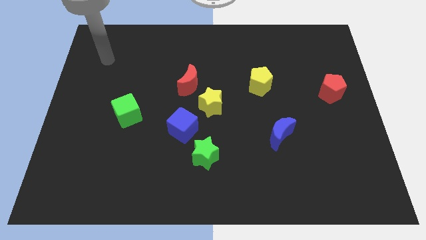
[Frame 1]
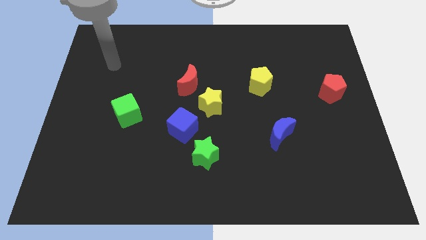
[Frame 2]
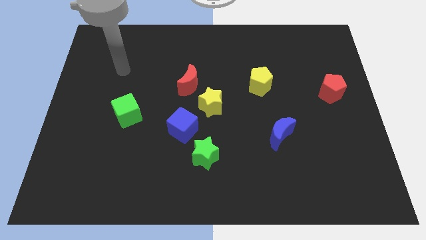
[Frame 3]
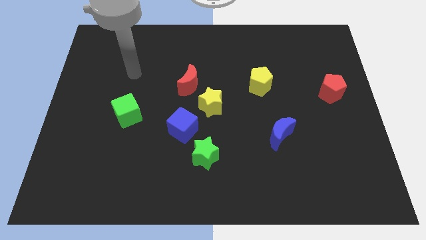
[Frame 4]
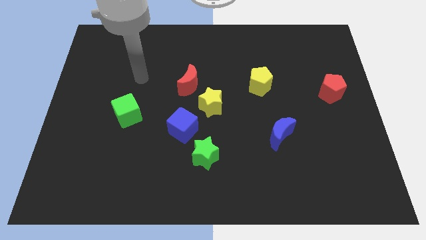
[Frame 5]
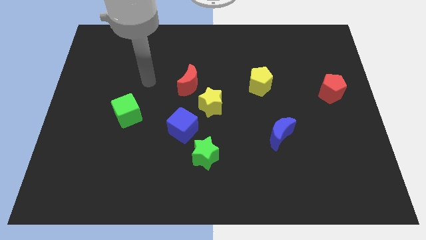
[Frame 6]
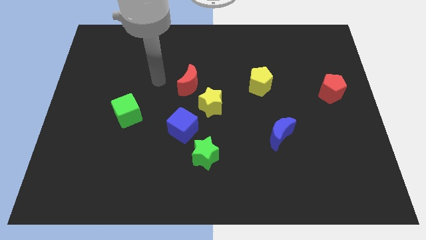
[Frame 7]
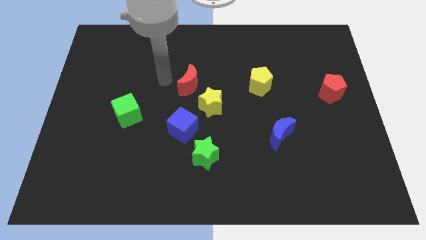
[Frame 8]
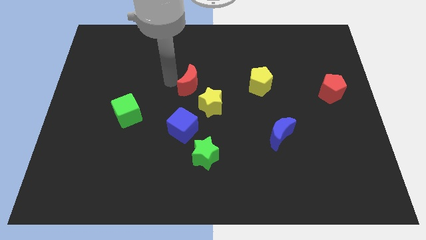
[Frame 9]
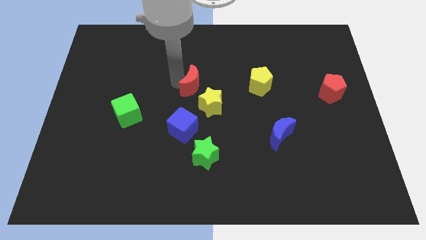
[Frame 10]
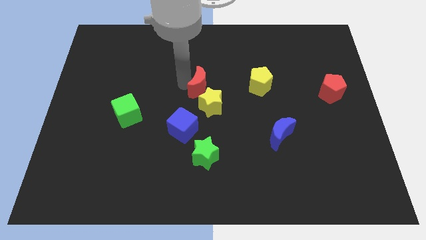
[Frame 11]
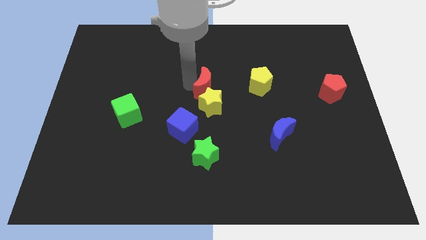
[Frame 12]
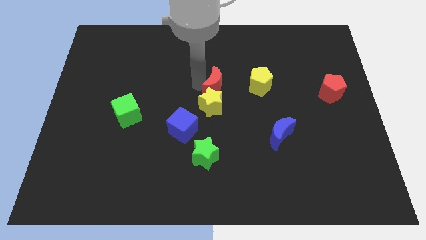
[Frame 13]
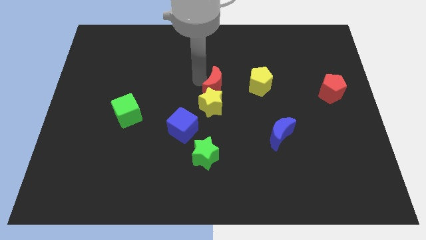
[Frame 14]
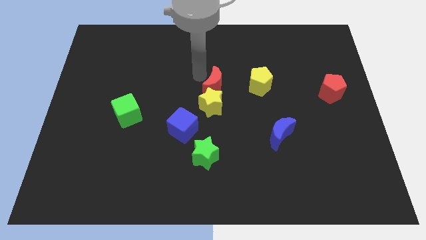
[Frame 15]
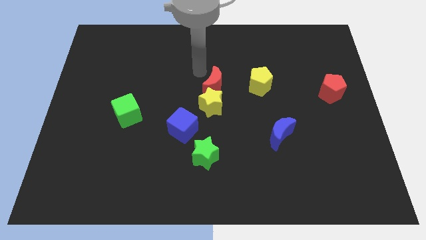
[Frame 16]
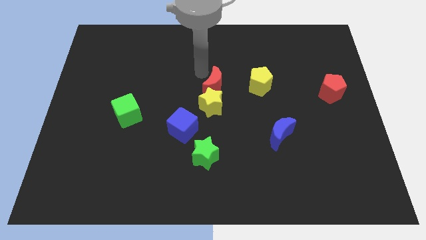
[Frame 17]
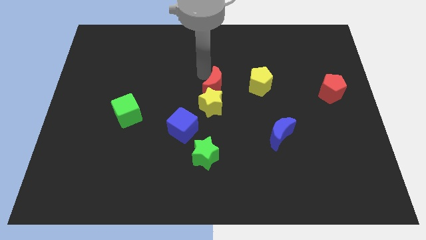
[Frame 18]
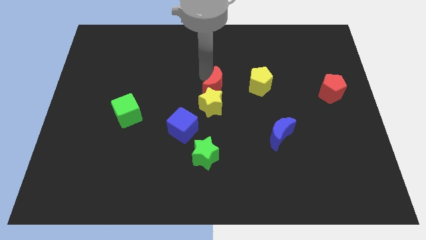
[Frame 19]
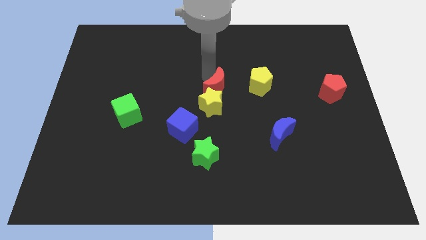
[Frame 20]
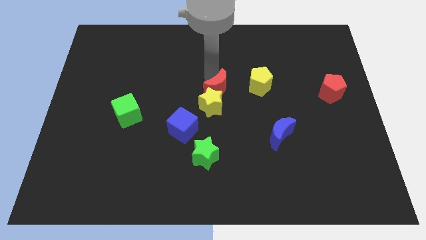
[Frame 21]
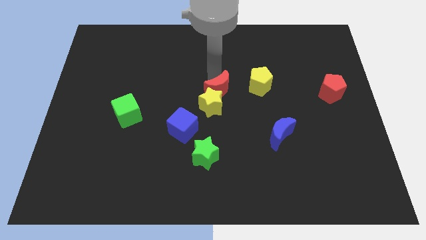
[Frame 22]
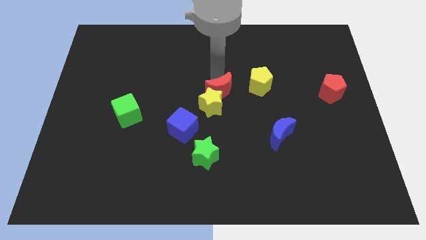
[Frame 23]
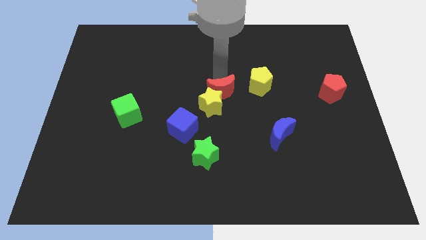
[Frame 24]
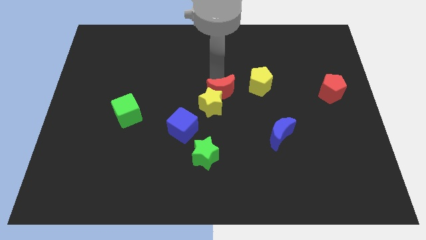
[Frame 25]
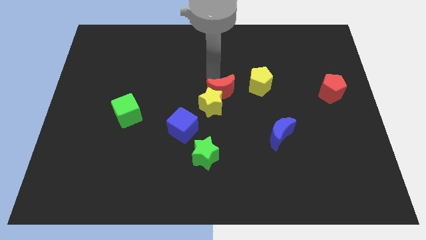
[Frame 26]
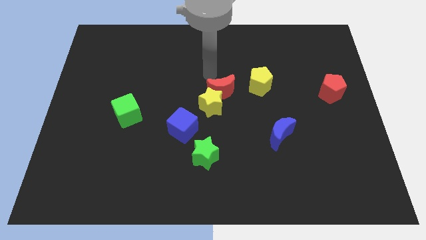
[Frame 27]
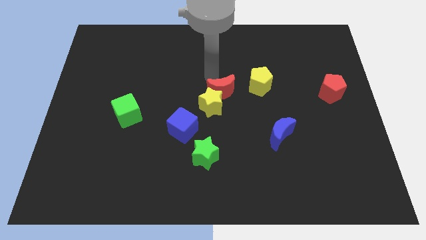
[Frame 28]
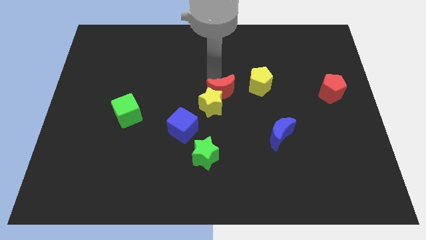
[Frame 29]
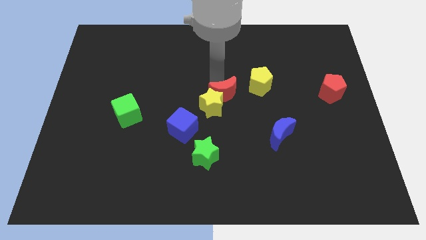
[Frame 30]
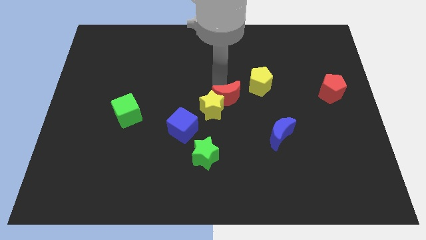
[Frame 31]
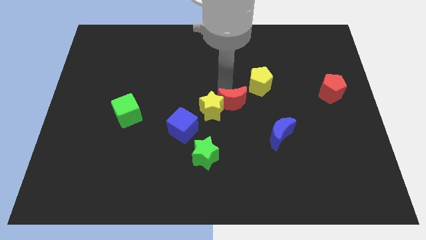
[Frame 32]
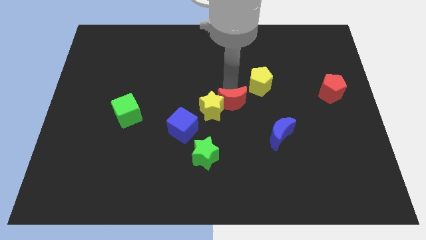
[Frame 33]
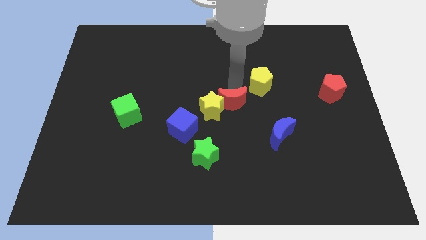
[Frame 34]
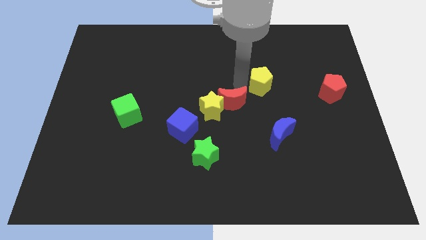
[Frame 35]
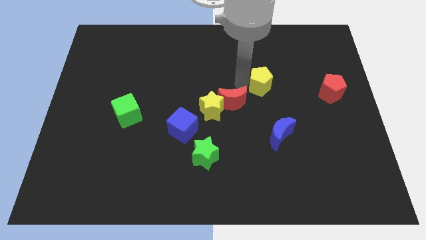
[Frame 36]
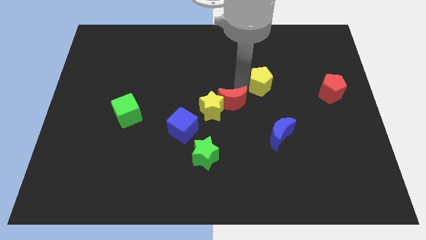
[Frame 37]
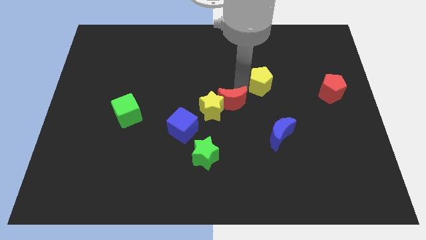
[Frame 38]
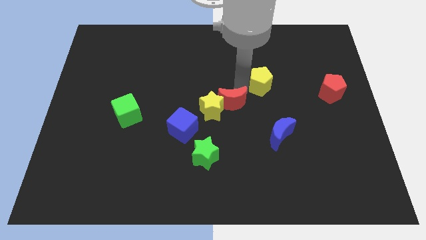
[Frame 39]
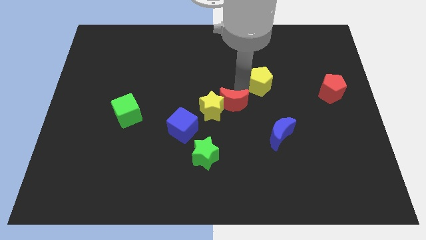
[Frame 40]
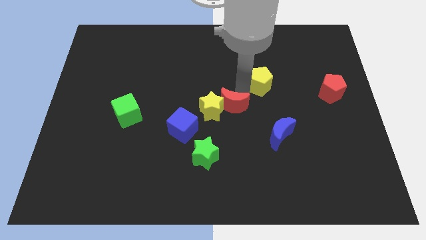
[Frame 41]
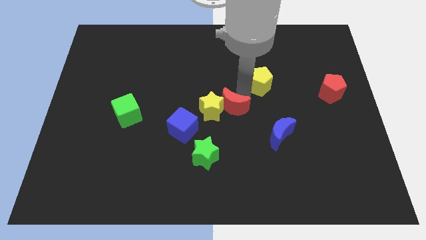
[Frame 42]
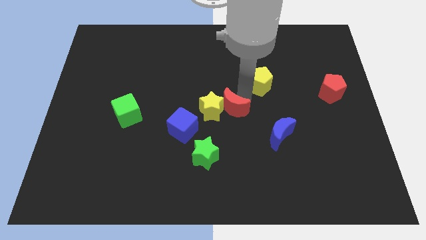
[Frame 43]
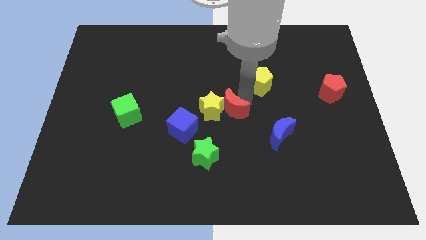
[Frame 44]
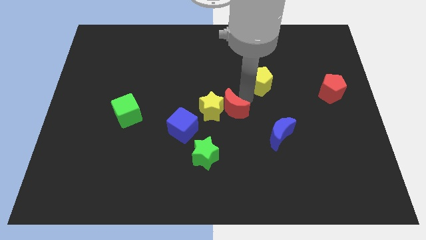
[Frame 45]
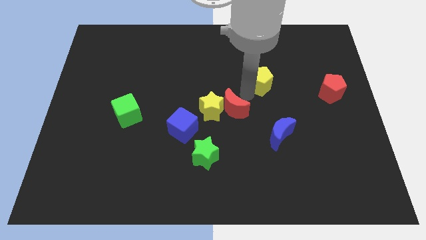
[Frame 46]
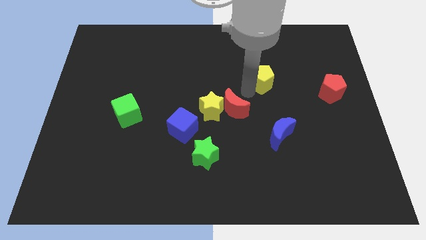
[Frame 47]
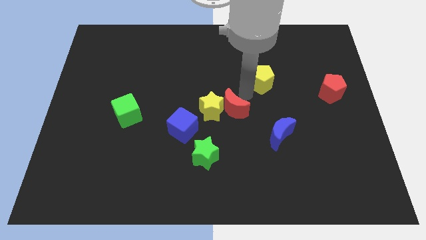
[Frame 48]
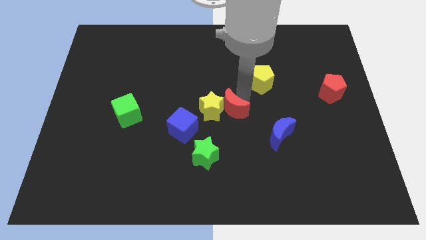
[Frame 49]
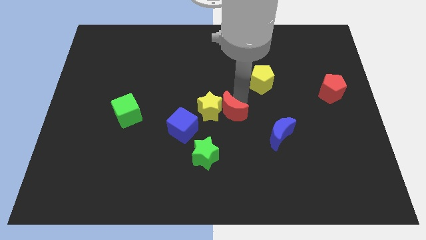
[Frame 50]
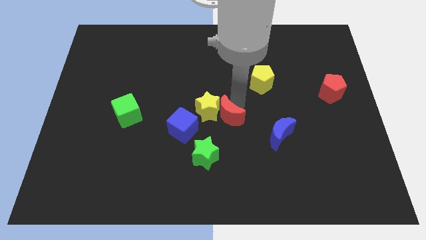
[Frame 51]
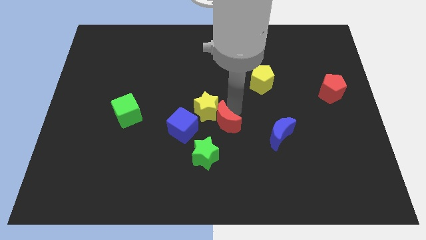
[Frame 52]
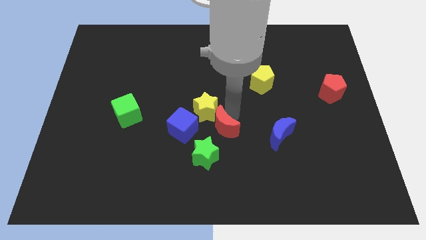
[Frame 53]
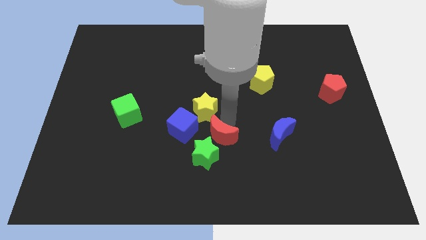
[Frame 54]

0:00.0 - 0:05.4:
put the red moon towards the green star

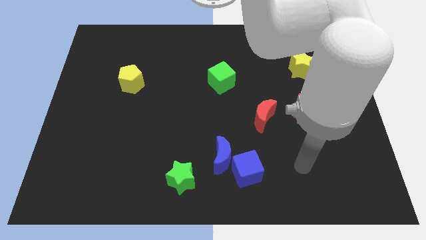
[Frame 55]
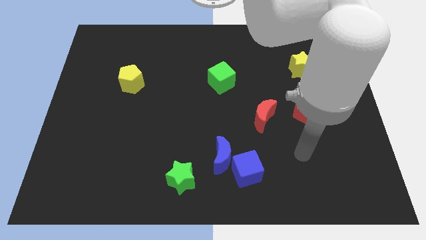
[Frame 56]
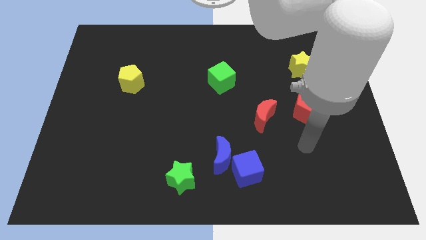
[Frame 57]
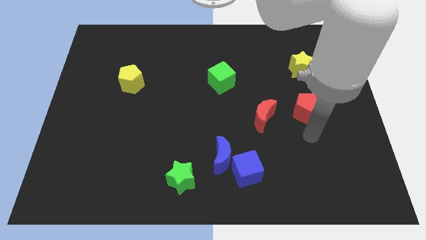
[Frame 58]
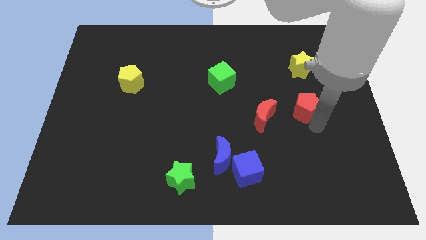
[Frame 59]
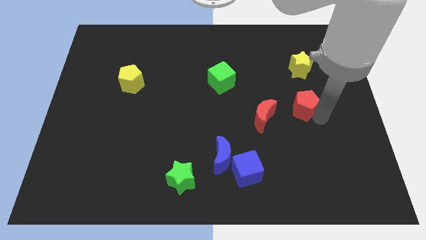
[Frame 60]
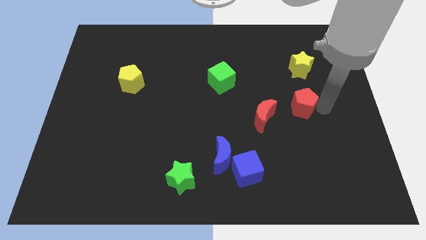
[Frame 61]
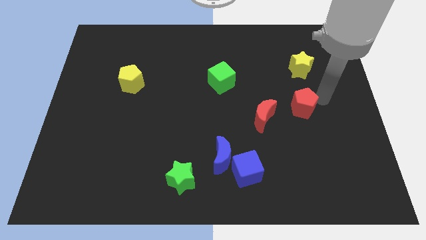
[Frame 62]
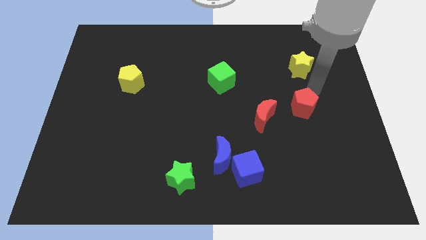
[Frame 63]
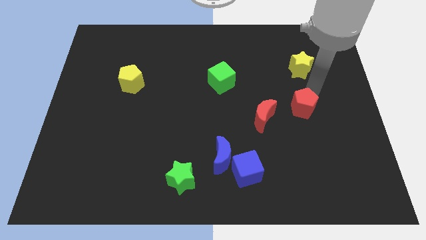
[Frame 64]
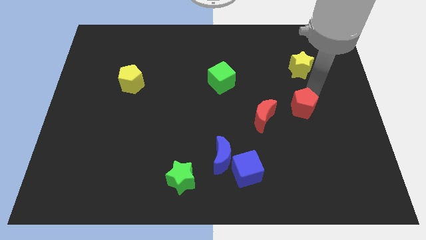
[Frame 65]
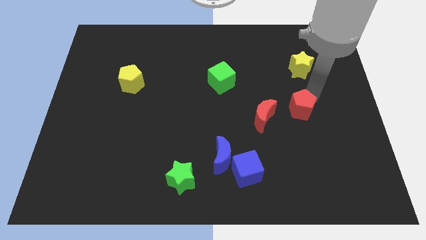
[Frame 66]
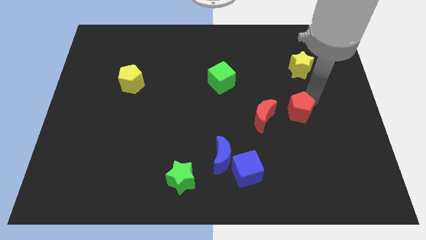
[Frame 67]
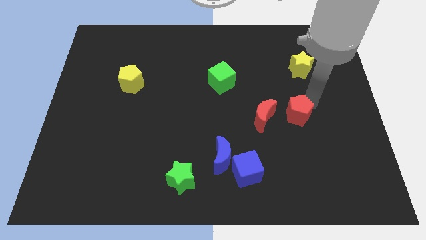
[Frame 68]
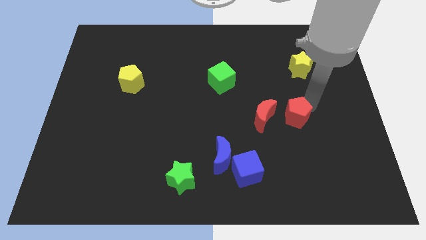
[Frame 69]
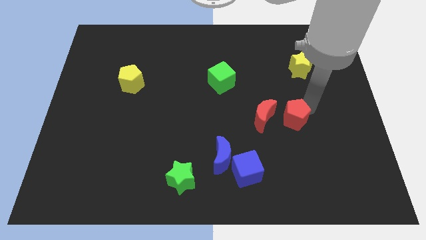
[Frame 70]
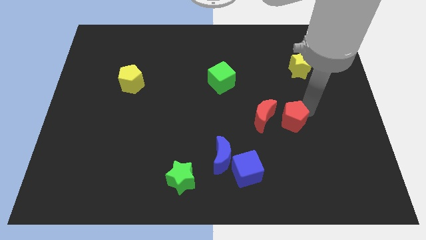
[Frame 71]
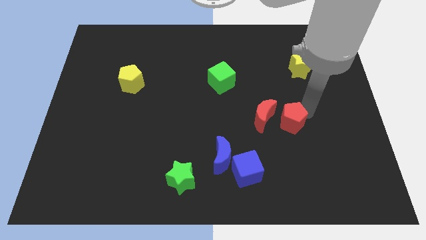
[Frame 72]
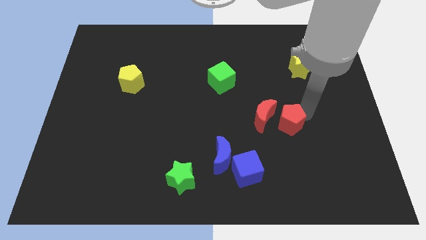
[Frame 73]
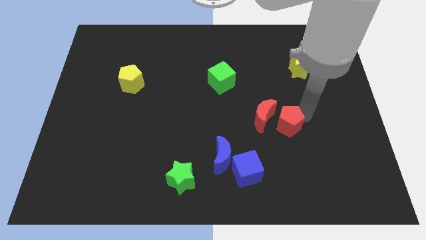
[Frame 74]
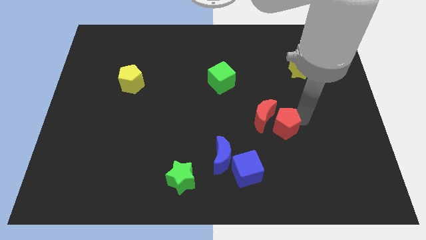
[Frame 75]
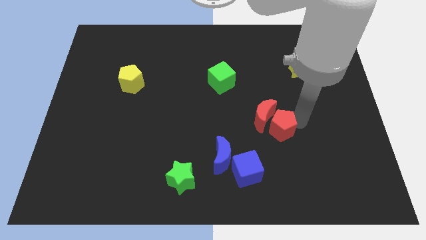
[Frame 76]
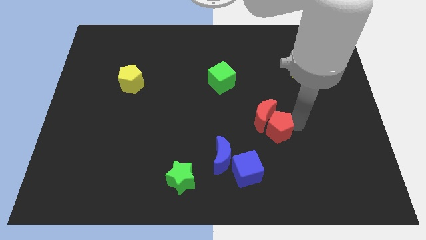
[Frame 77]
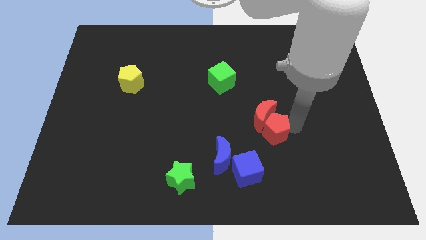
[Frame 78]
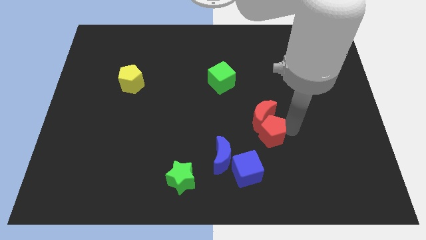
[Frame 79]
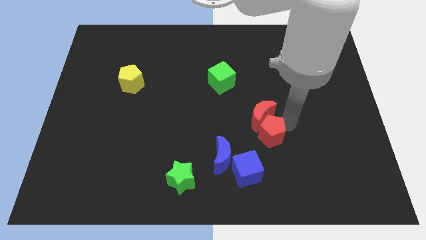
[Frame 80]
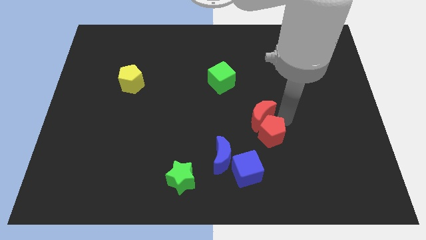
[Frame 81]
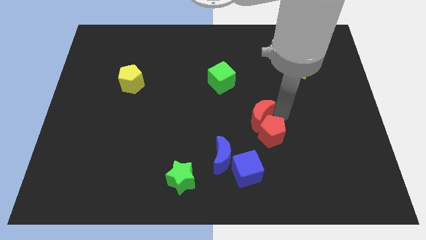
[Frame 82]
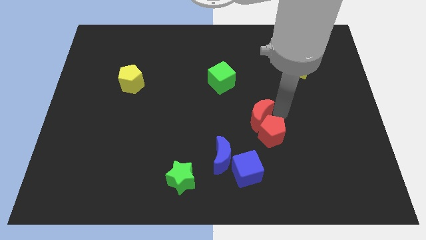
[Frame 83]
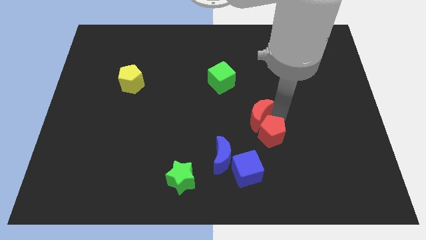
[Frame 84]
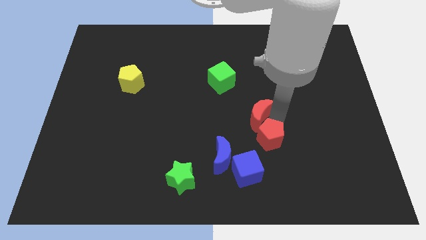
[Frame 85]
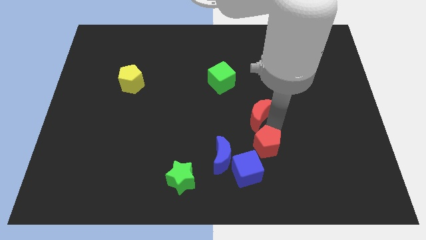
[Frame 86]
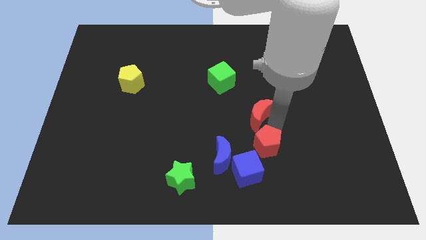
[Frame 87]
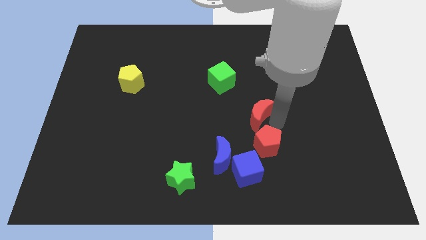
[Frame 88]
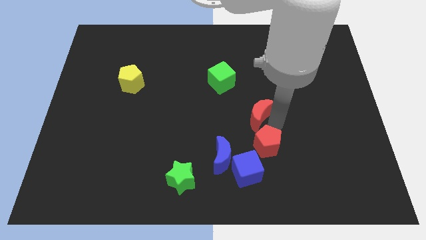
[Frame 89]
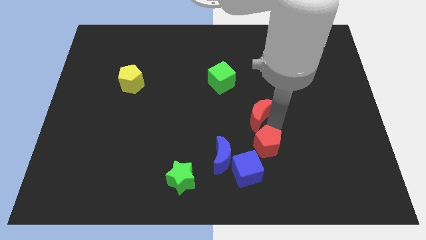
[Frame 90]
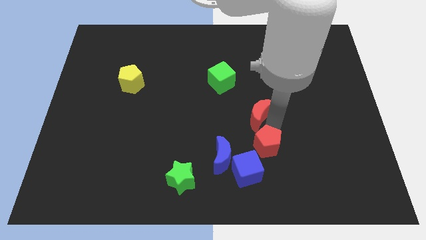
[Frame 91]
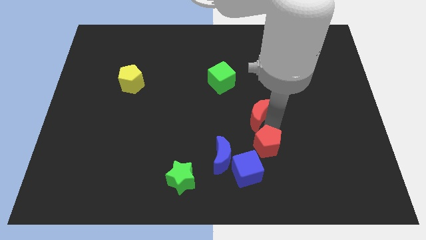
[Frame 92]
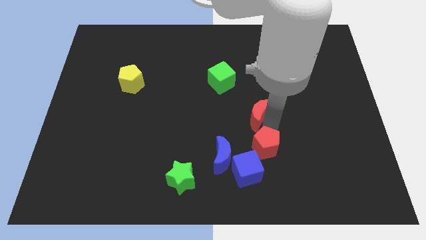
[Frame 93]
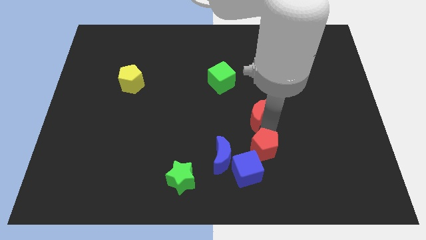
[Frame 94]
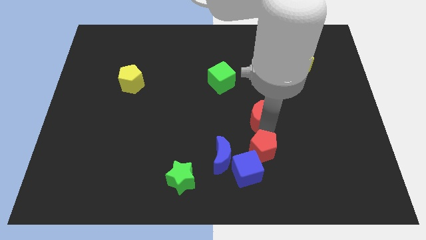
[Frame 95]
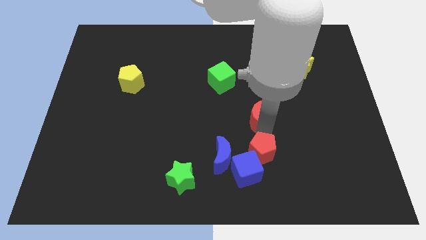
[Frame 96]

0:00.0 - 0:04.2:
put the red pentagon close to the blue cube
